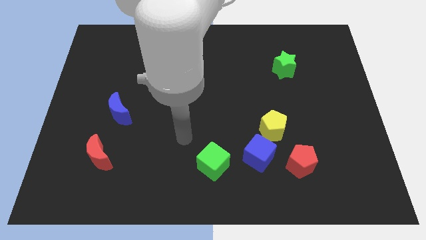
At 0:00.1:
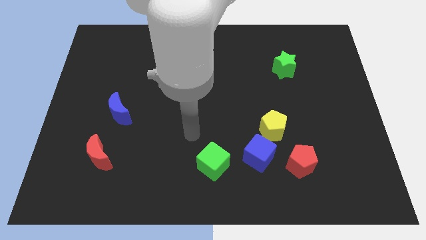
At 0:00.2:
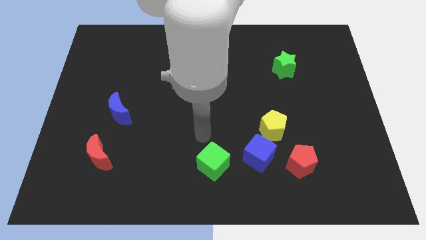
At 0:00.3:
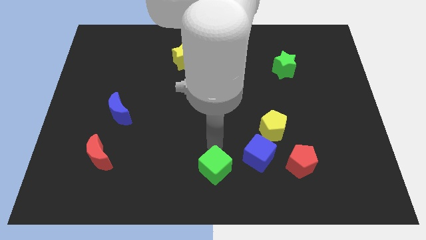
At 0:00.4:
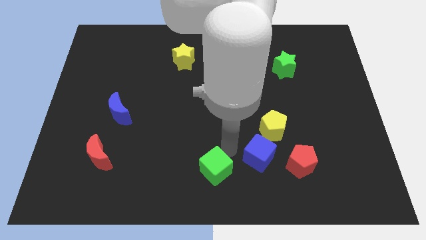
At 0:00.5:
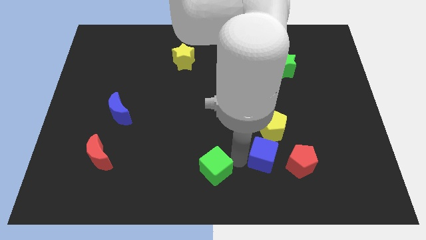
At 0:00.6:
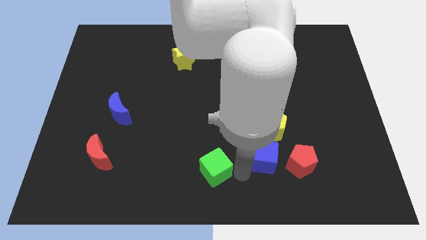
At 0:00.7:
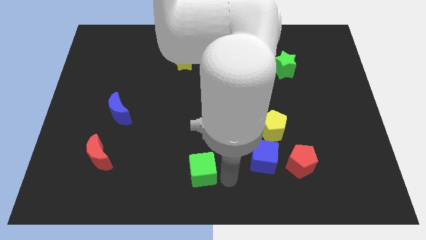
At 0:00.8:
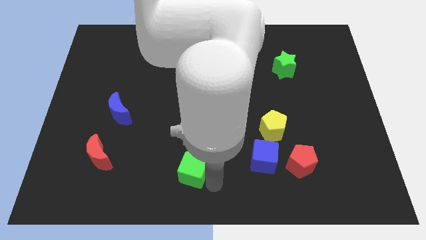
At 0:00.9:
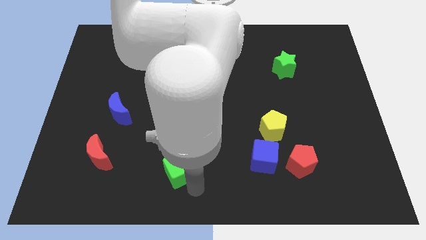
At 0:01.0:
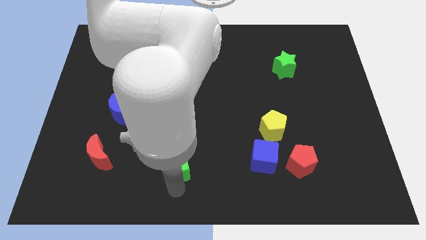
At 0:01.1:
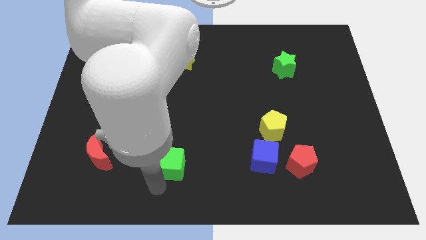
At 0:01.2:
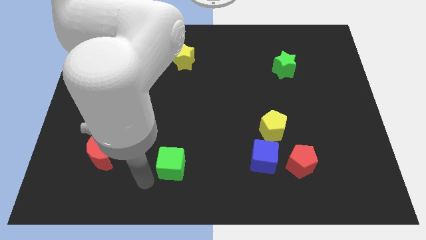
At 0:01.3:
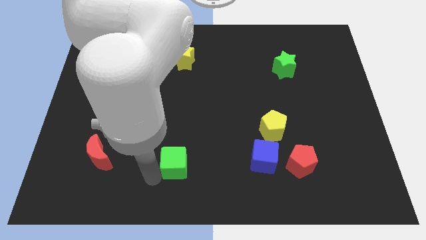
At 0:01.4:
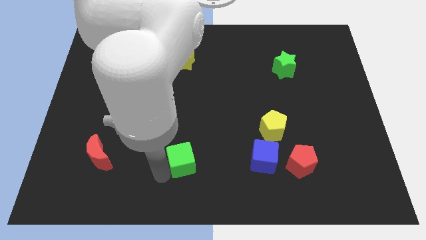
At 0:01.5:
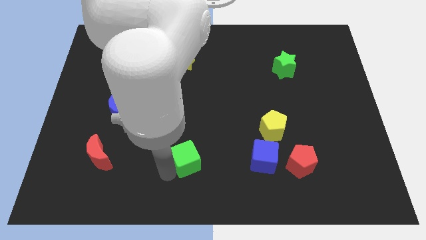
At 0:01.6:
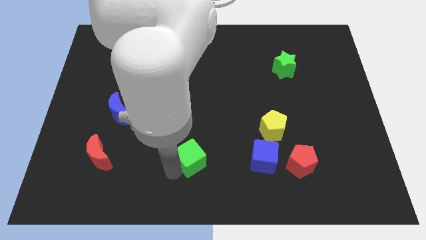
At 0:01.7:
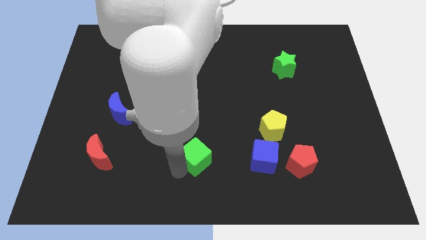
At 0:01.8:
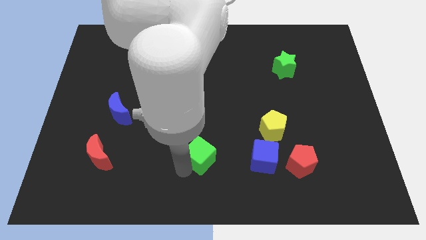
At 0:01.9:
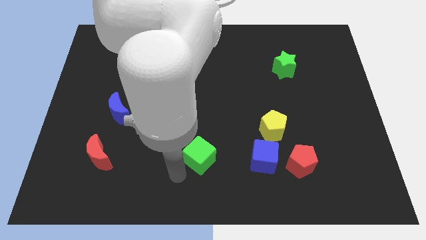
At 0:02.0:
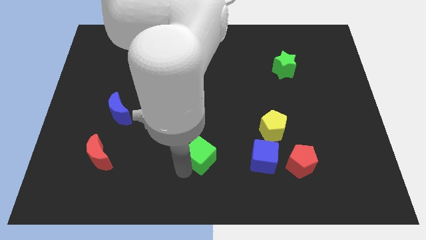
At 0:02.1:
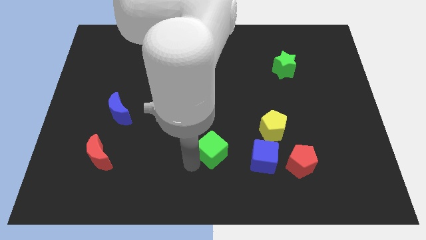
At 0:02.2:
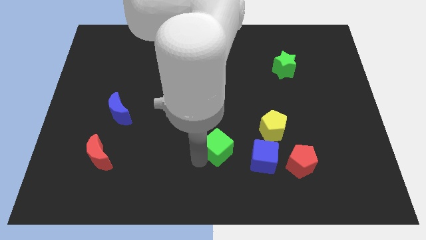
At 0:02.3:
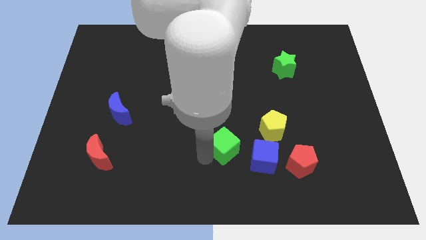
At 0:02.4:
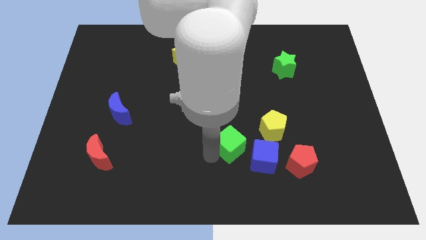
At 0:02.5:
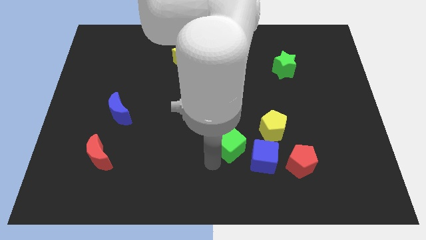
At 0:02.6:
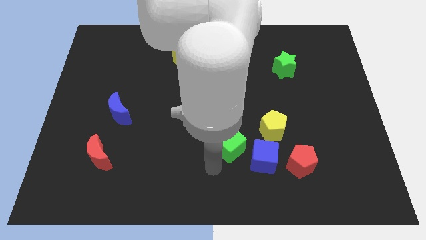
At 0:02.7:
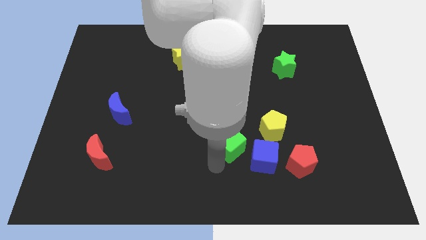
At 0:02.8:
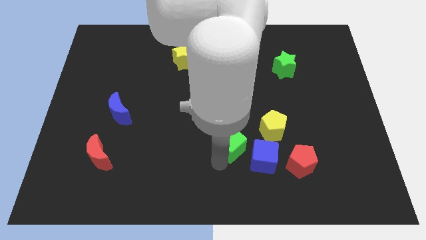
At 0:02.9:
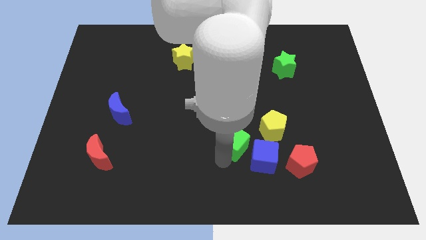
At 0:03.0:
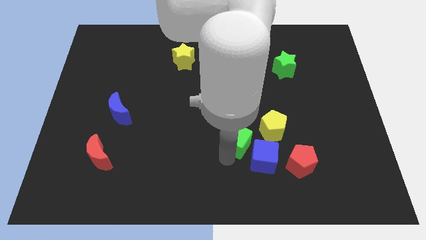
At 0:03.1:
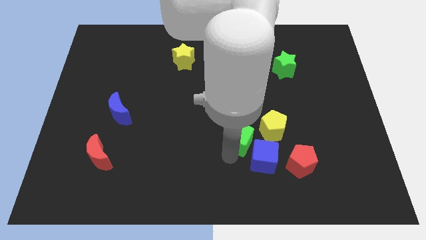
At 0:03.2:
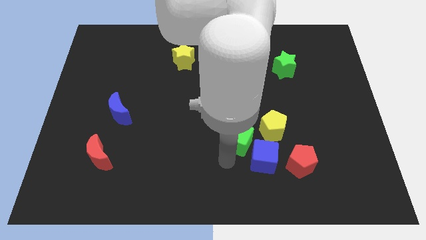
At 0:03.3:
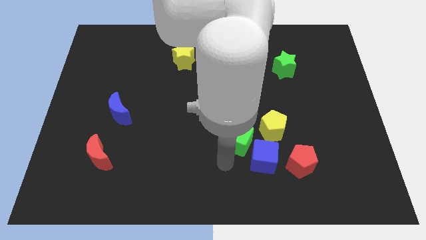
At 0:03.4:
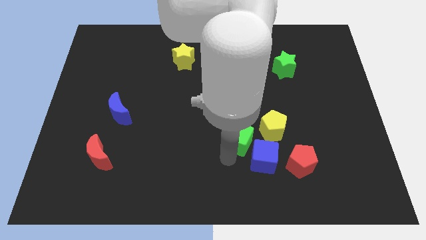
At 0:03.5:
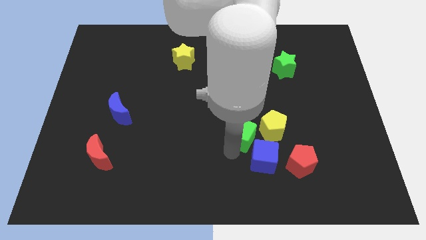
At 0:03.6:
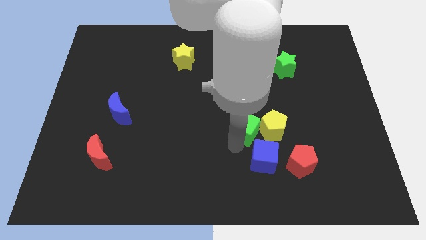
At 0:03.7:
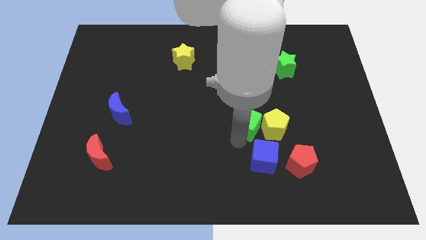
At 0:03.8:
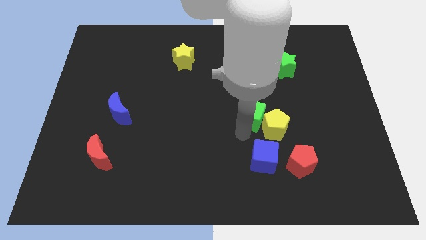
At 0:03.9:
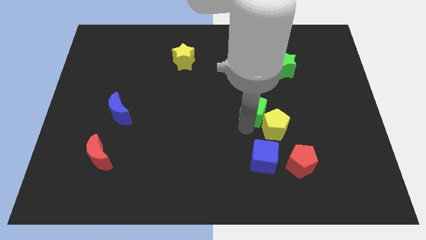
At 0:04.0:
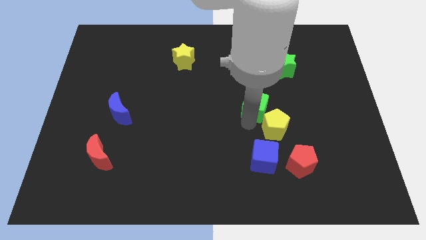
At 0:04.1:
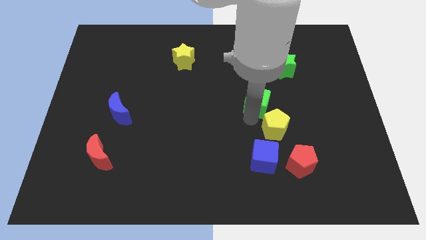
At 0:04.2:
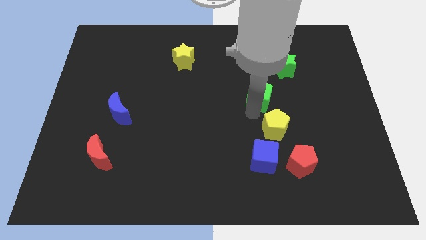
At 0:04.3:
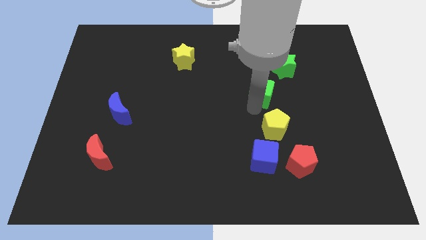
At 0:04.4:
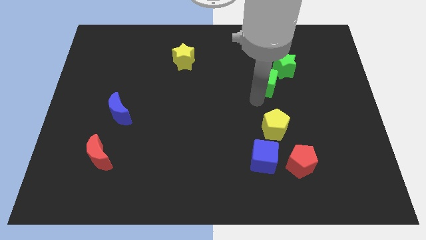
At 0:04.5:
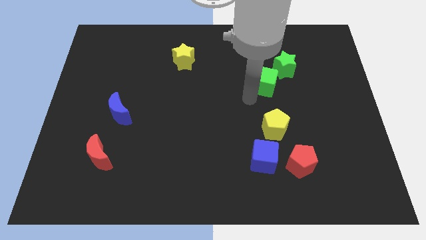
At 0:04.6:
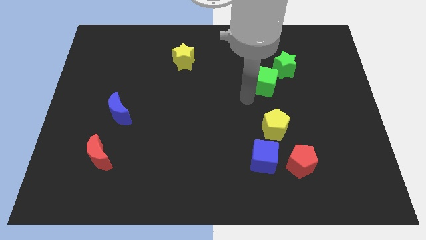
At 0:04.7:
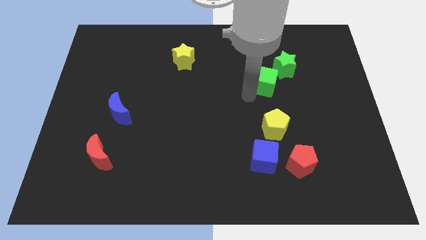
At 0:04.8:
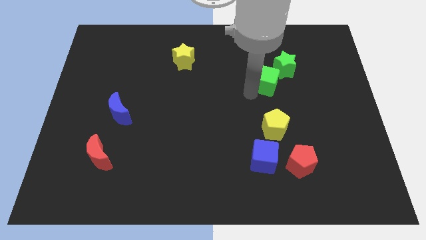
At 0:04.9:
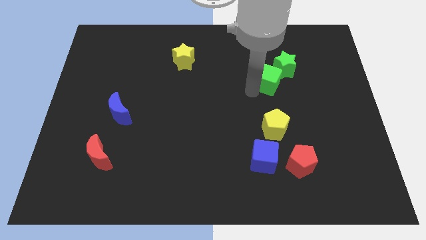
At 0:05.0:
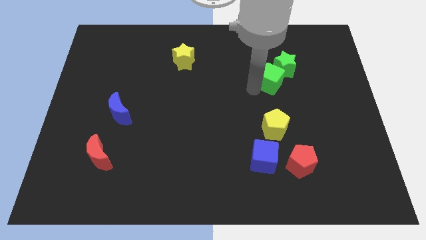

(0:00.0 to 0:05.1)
move the green cube next to the green star

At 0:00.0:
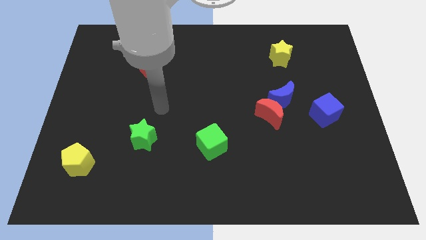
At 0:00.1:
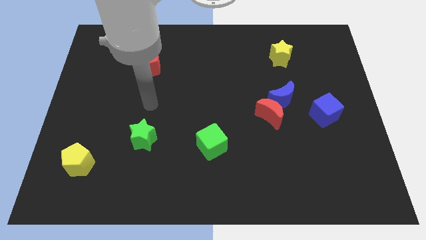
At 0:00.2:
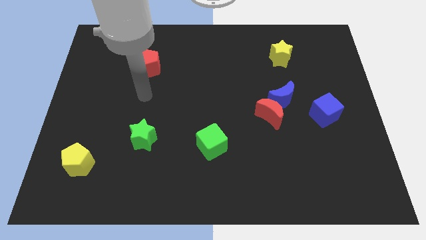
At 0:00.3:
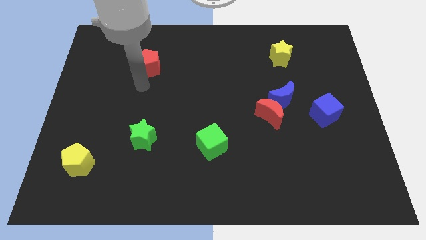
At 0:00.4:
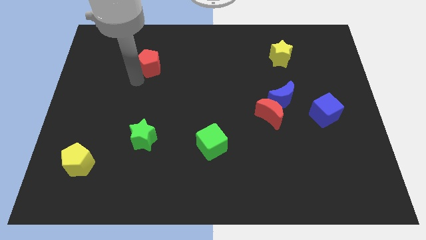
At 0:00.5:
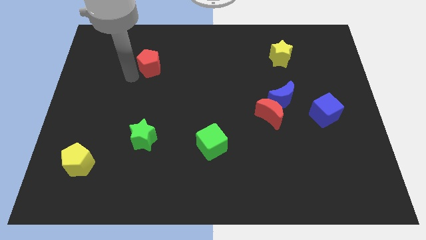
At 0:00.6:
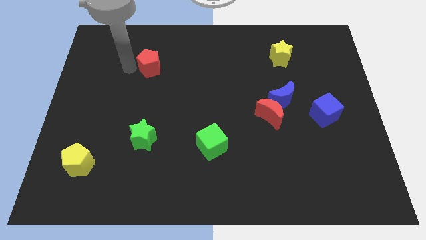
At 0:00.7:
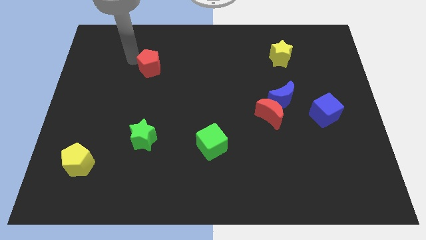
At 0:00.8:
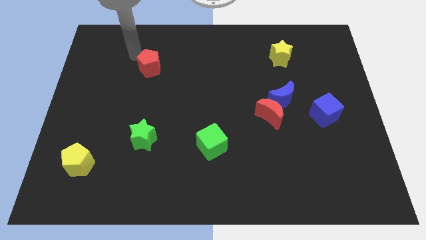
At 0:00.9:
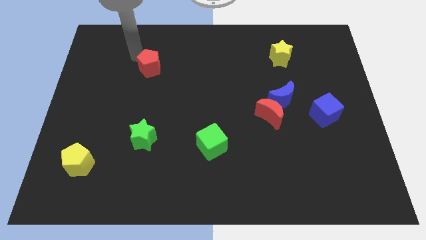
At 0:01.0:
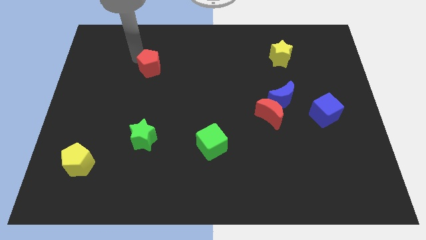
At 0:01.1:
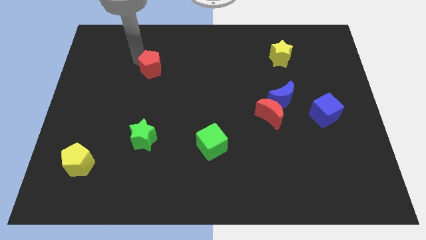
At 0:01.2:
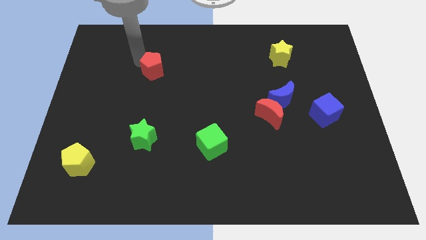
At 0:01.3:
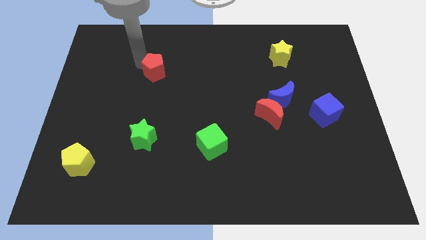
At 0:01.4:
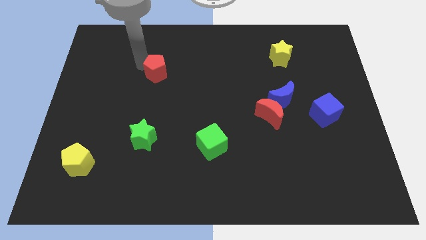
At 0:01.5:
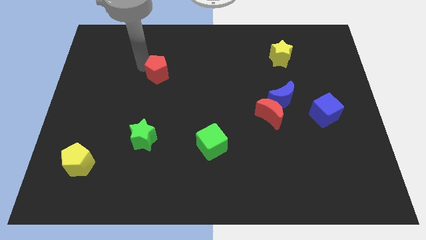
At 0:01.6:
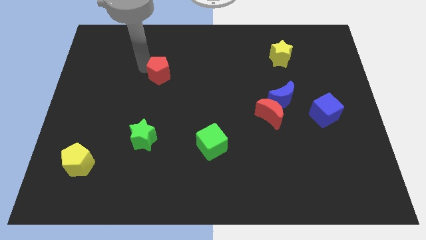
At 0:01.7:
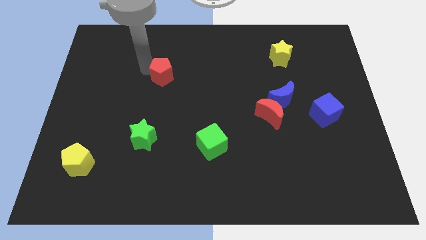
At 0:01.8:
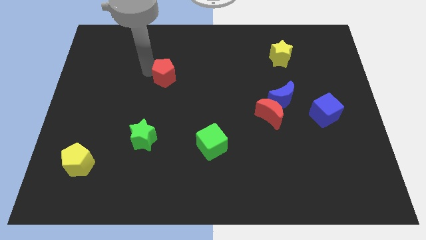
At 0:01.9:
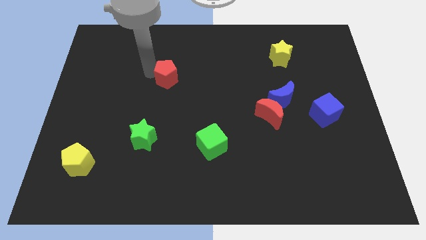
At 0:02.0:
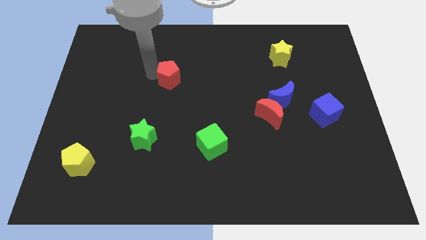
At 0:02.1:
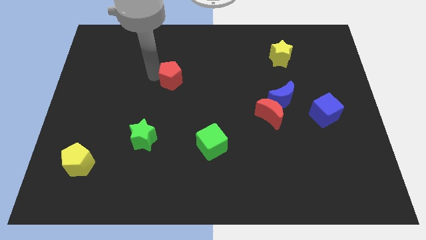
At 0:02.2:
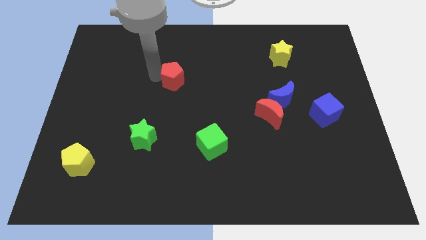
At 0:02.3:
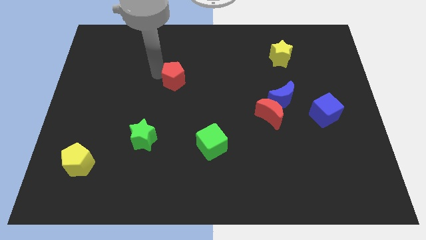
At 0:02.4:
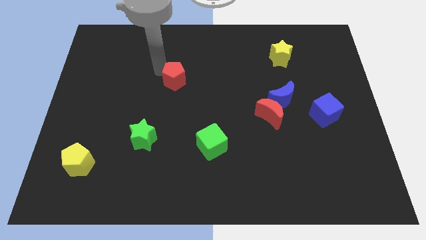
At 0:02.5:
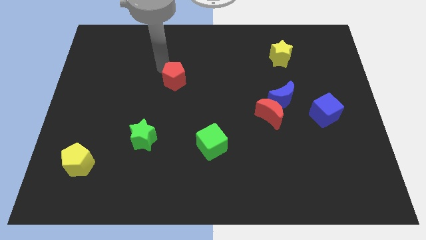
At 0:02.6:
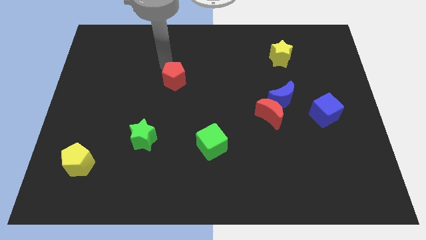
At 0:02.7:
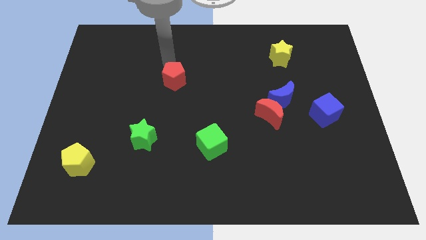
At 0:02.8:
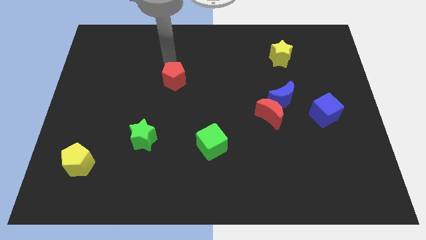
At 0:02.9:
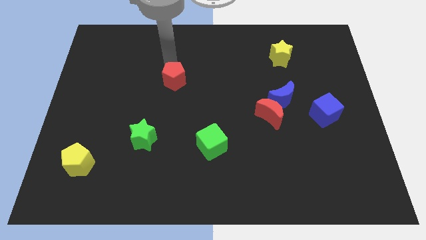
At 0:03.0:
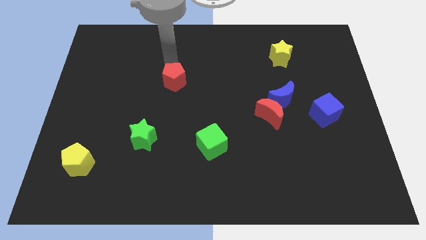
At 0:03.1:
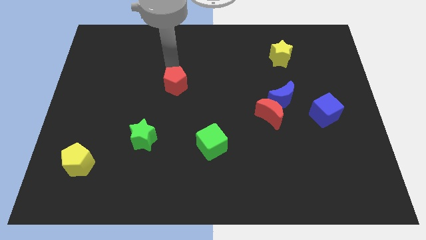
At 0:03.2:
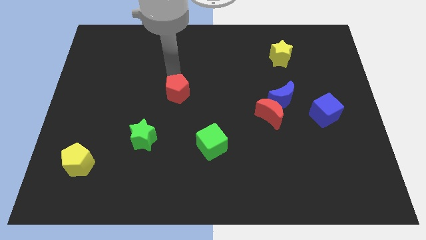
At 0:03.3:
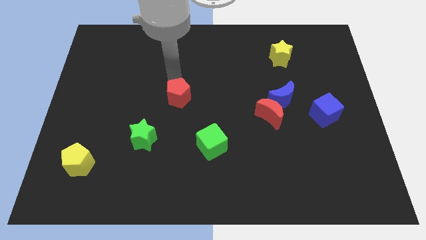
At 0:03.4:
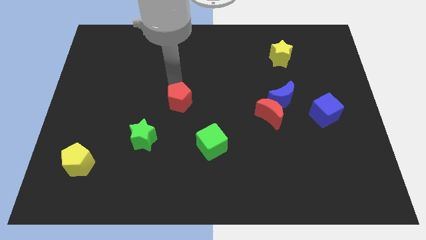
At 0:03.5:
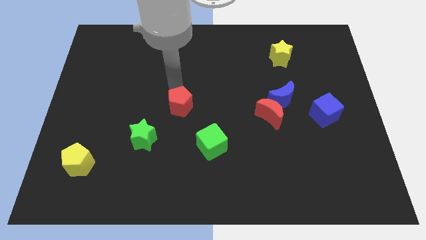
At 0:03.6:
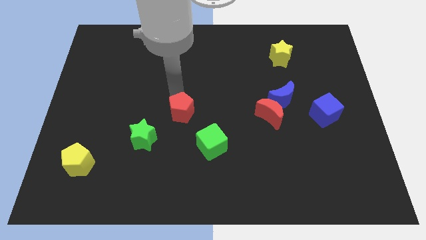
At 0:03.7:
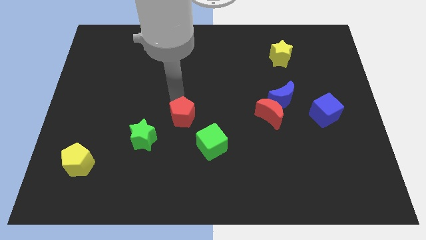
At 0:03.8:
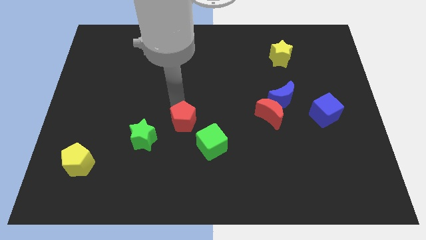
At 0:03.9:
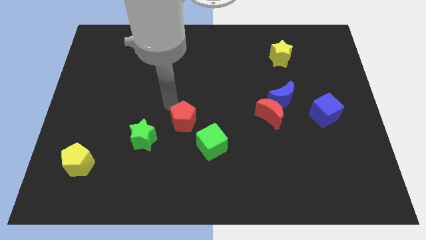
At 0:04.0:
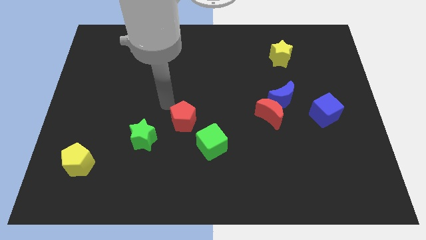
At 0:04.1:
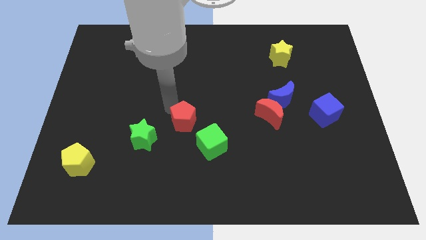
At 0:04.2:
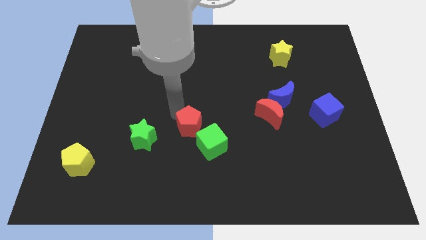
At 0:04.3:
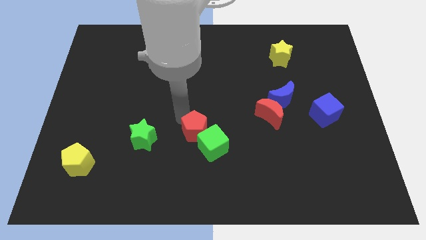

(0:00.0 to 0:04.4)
slide the red pentagon to the green cube
